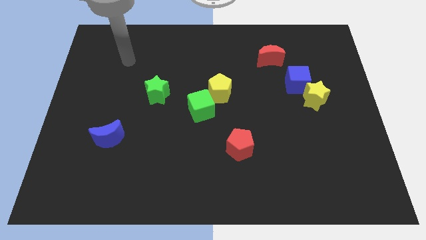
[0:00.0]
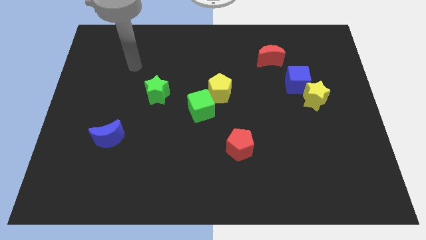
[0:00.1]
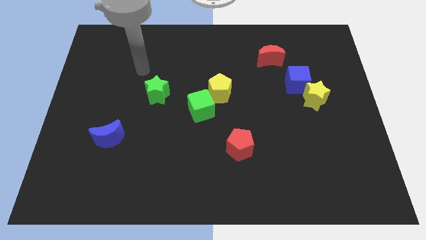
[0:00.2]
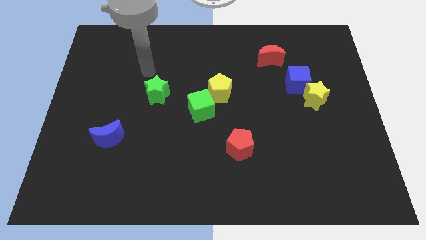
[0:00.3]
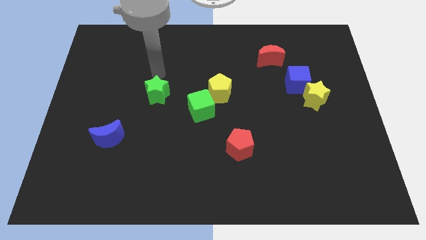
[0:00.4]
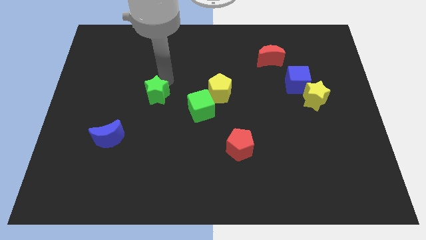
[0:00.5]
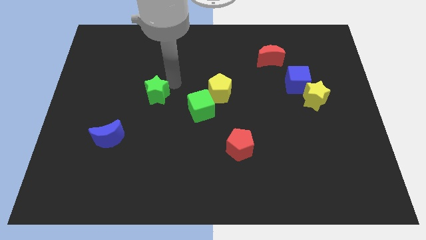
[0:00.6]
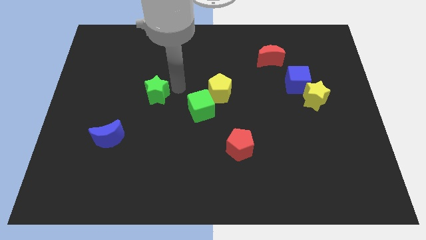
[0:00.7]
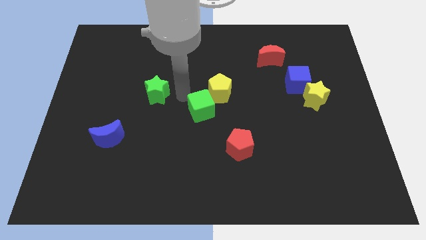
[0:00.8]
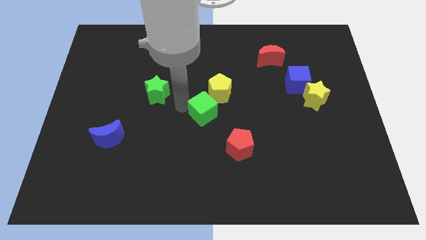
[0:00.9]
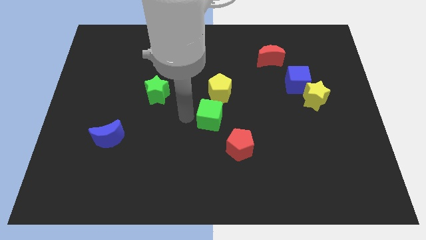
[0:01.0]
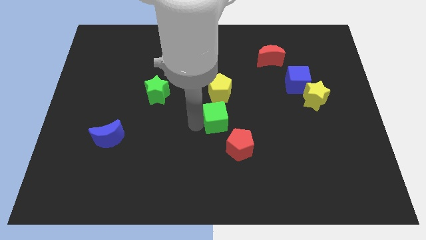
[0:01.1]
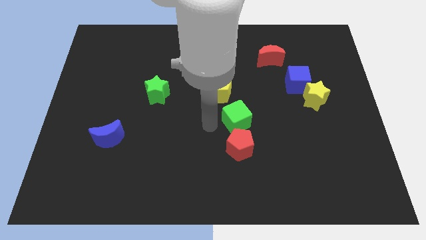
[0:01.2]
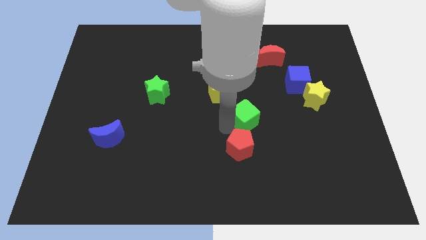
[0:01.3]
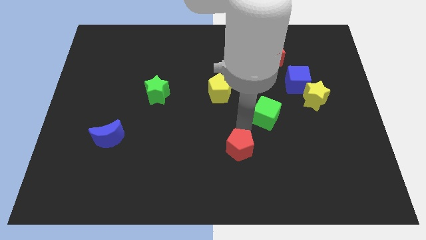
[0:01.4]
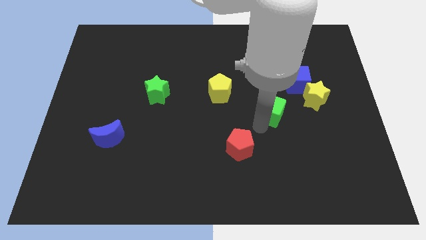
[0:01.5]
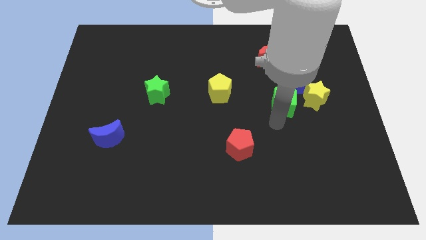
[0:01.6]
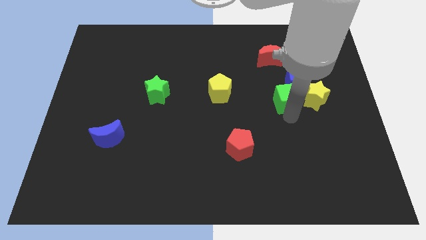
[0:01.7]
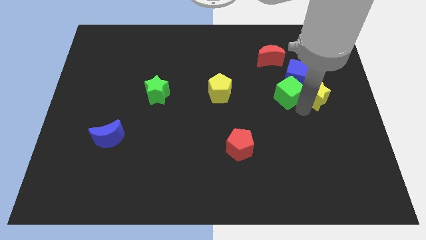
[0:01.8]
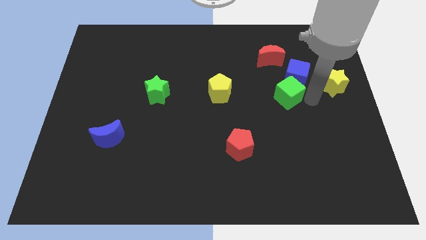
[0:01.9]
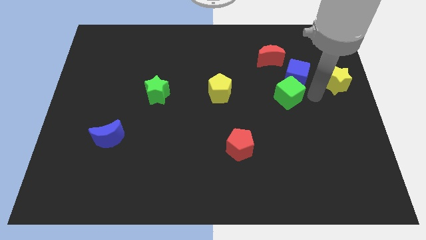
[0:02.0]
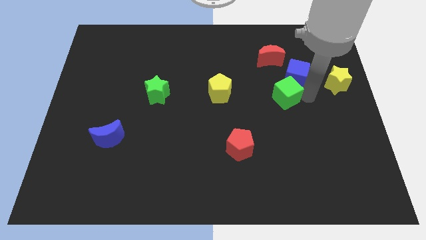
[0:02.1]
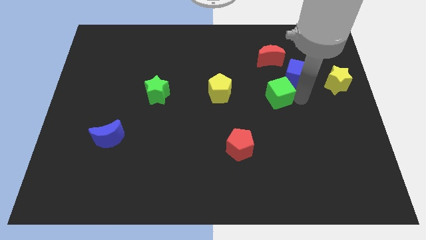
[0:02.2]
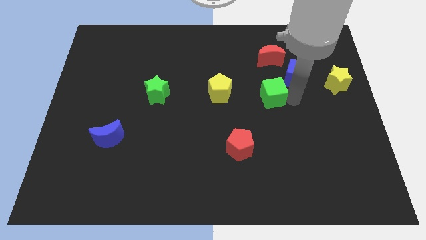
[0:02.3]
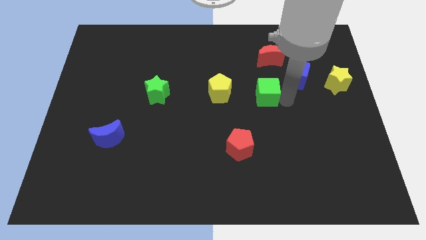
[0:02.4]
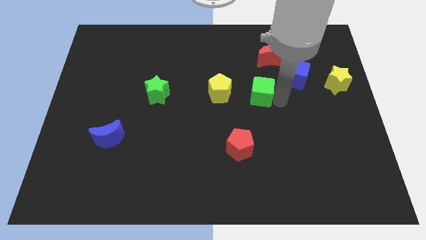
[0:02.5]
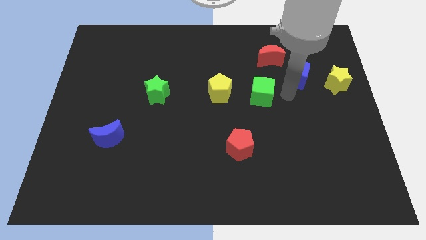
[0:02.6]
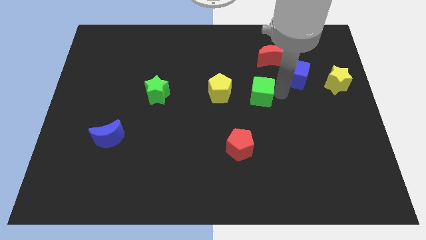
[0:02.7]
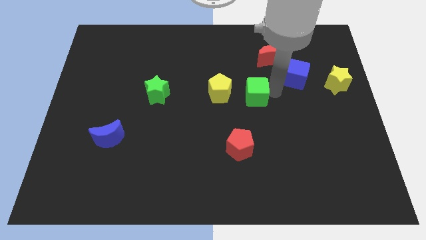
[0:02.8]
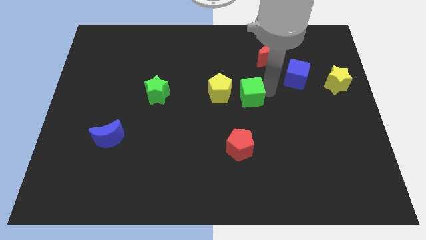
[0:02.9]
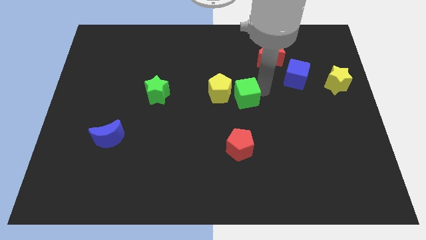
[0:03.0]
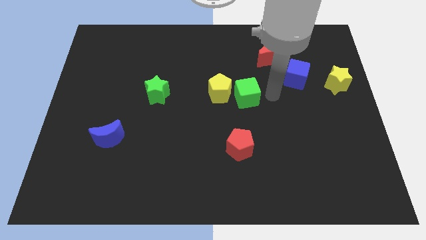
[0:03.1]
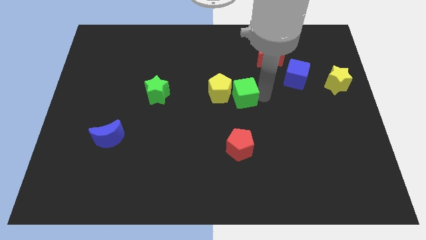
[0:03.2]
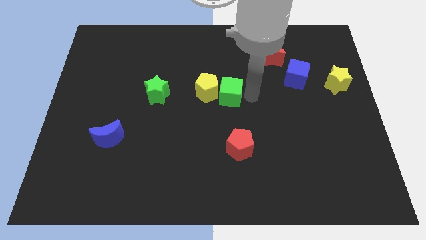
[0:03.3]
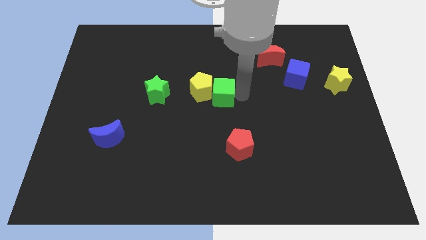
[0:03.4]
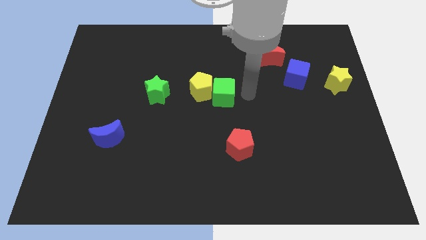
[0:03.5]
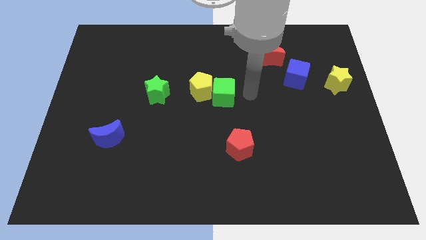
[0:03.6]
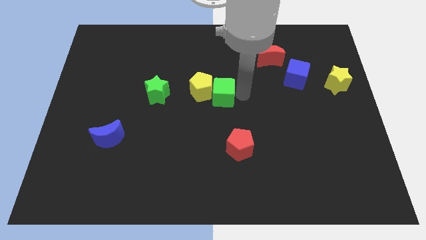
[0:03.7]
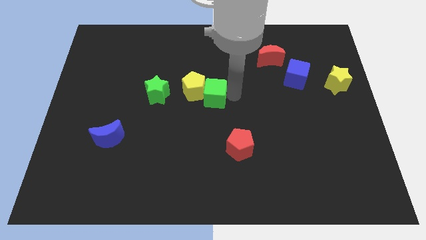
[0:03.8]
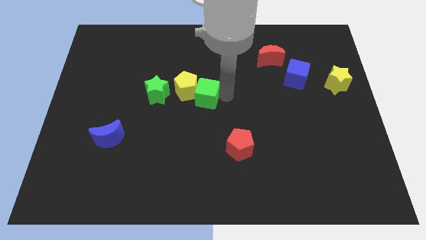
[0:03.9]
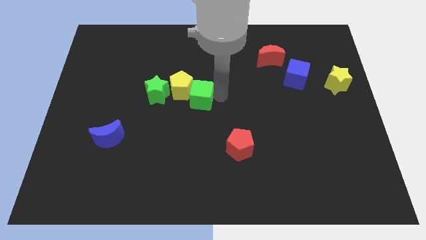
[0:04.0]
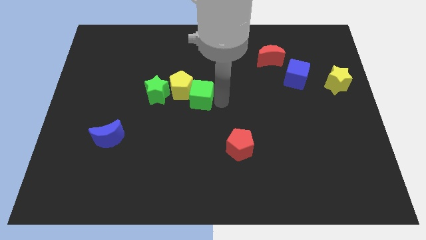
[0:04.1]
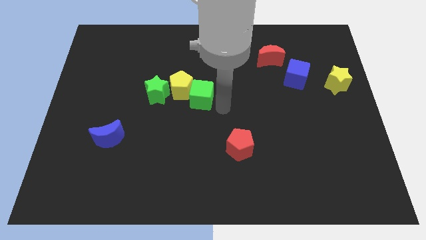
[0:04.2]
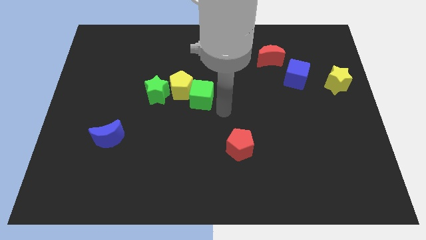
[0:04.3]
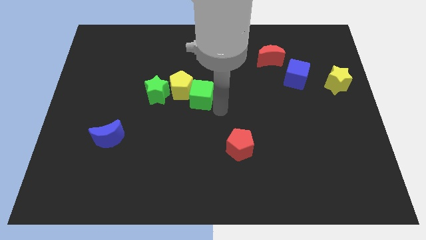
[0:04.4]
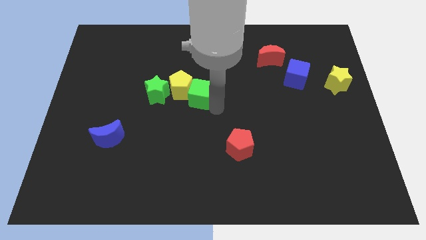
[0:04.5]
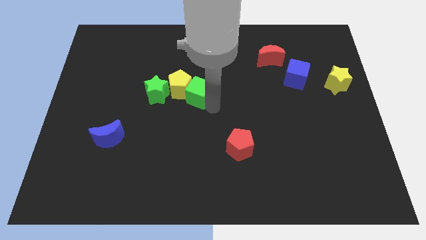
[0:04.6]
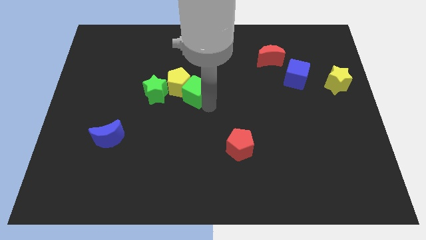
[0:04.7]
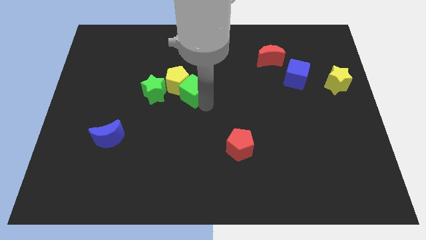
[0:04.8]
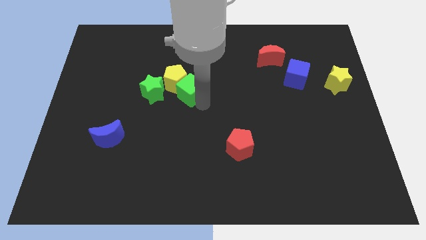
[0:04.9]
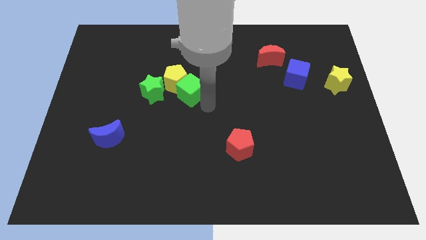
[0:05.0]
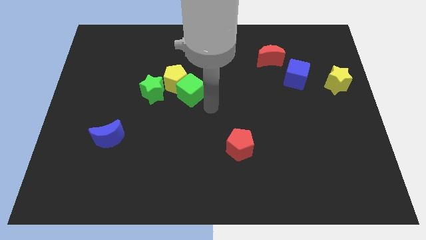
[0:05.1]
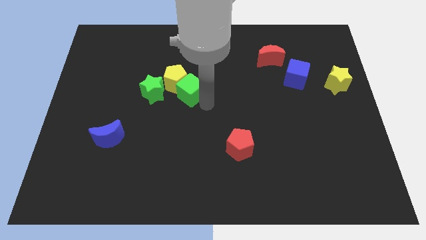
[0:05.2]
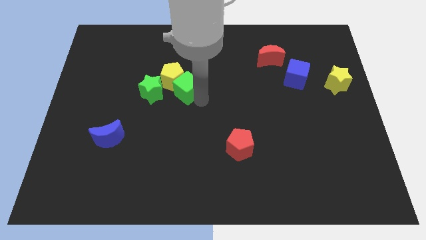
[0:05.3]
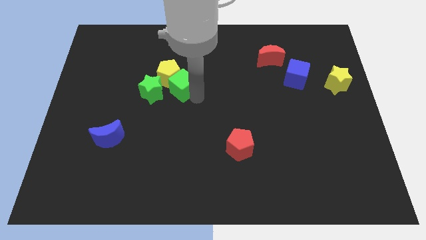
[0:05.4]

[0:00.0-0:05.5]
slide the green cube a bit diagonally up and to the left

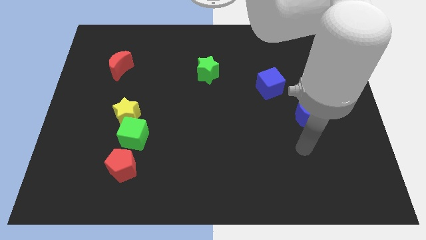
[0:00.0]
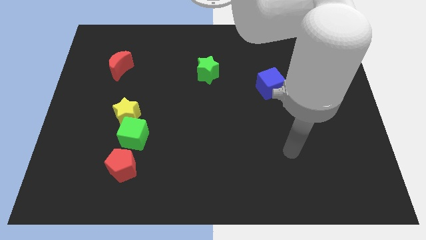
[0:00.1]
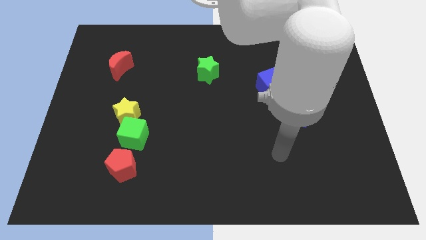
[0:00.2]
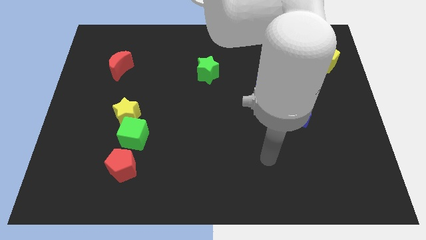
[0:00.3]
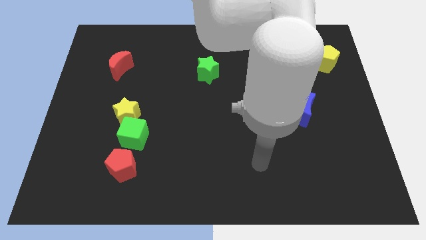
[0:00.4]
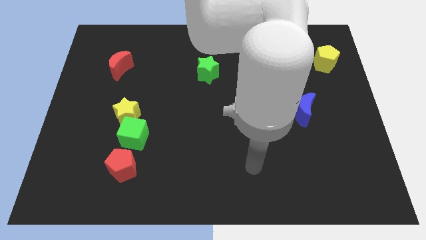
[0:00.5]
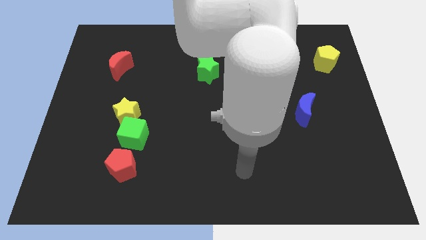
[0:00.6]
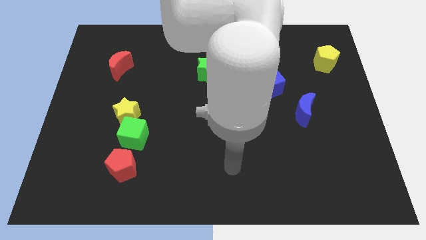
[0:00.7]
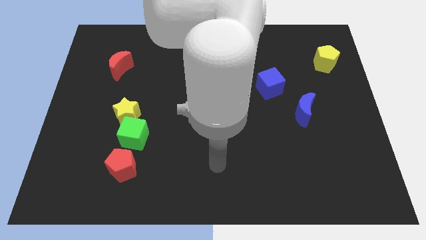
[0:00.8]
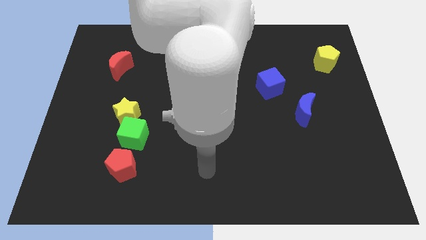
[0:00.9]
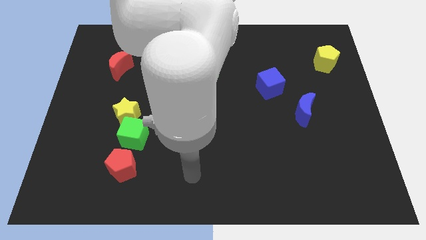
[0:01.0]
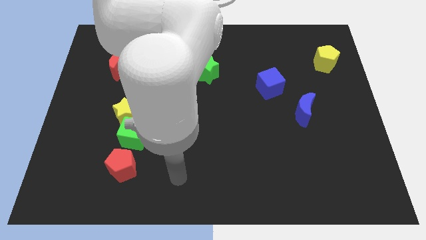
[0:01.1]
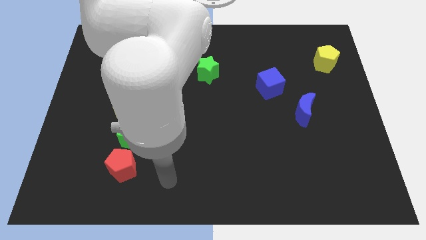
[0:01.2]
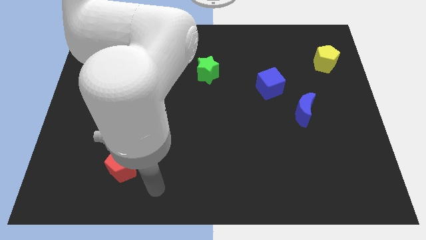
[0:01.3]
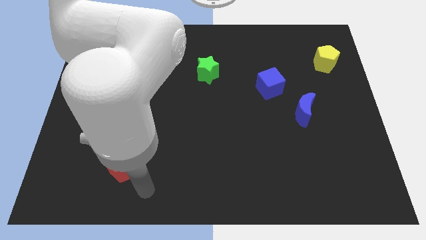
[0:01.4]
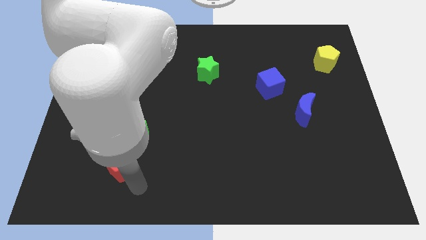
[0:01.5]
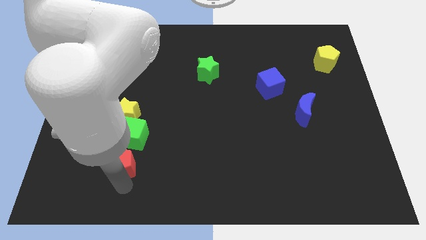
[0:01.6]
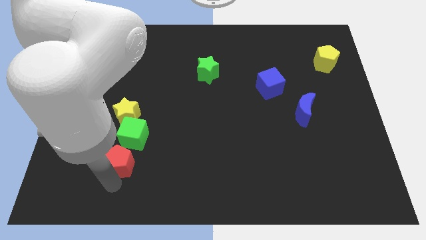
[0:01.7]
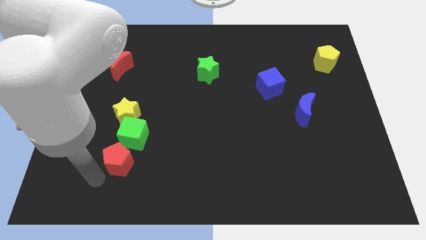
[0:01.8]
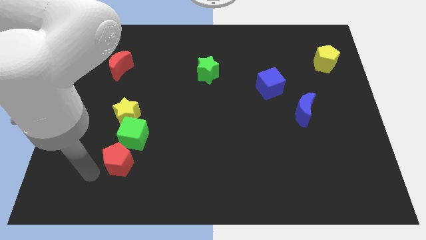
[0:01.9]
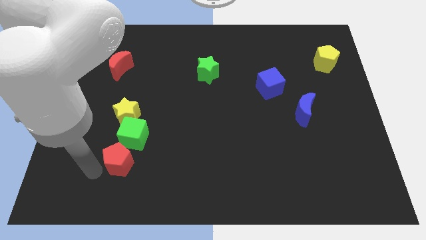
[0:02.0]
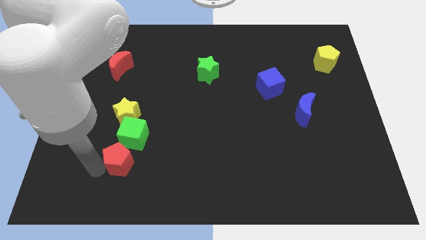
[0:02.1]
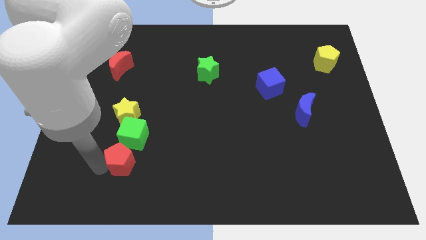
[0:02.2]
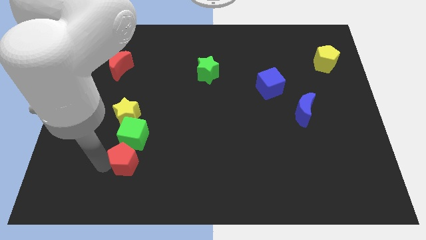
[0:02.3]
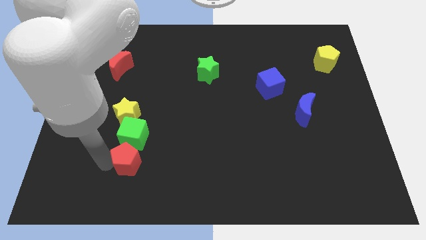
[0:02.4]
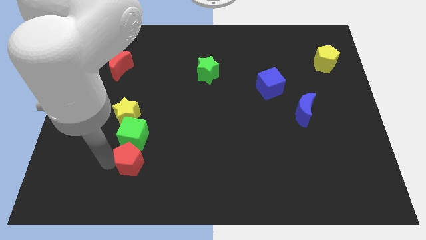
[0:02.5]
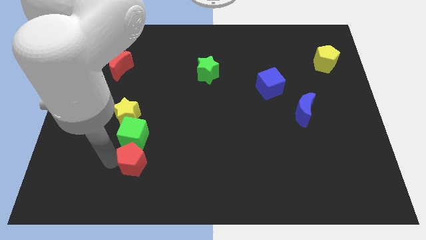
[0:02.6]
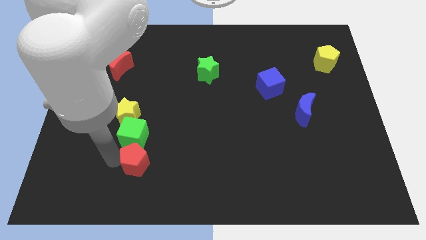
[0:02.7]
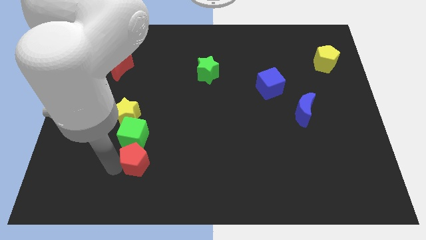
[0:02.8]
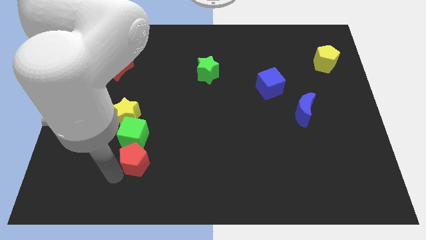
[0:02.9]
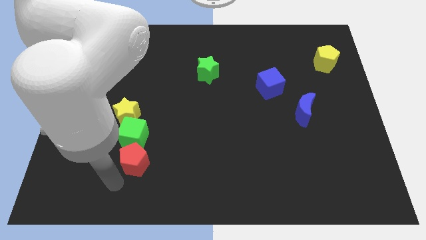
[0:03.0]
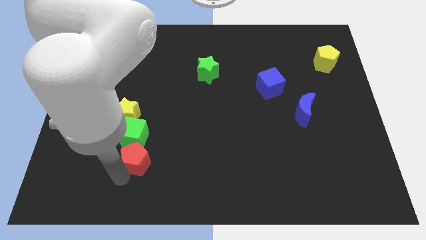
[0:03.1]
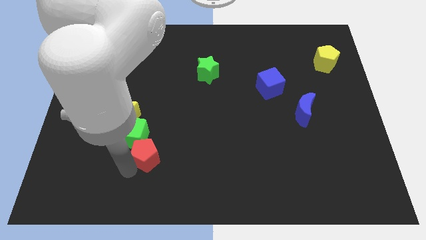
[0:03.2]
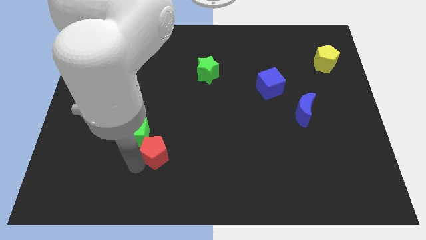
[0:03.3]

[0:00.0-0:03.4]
slightly push the red pentagon diagonally up and to the right
